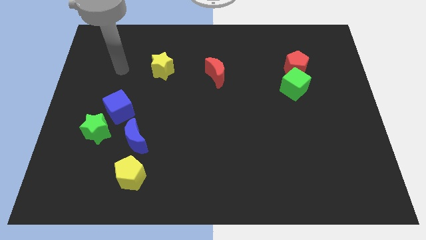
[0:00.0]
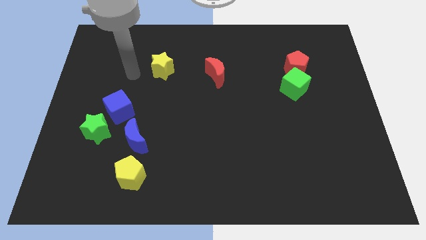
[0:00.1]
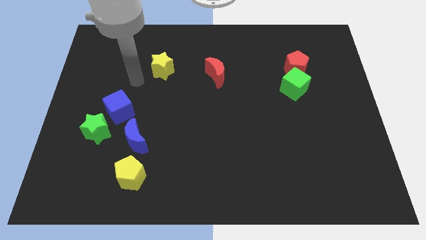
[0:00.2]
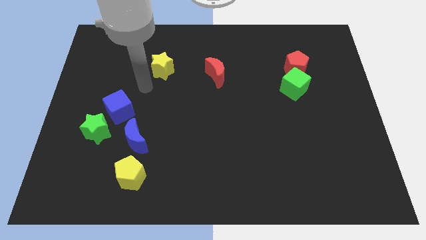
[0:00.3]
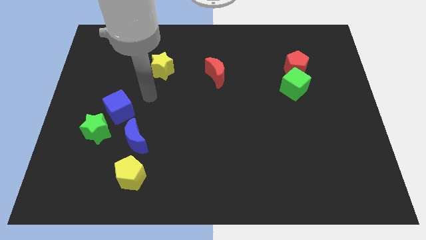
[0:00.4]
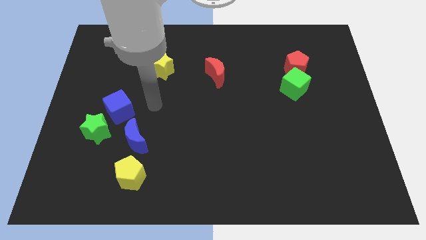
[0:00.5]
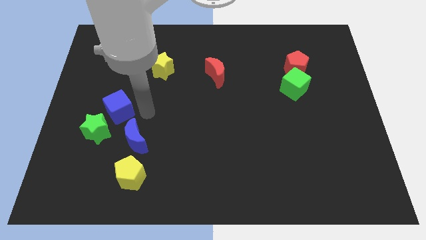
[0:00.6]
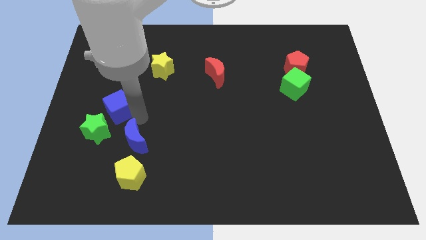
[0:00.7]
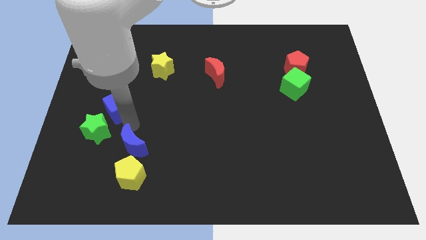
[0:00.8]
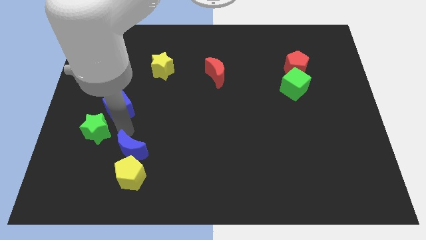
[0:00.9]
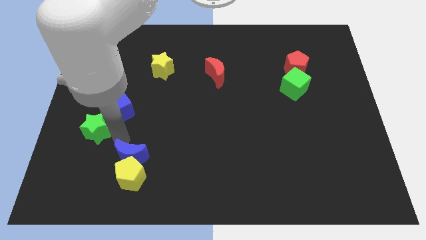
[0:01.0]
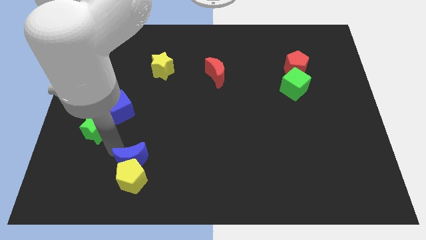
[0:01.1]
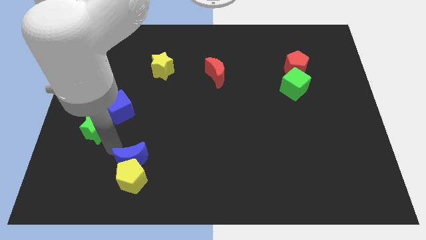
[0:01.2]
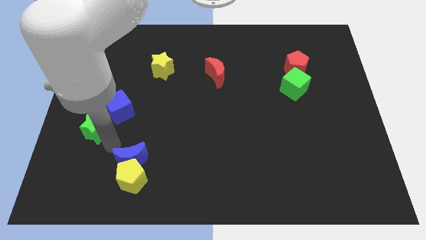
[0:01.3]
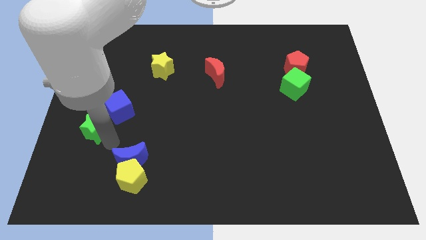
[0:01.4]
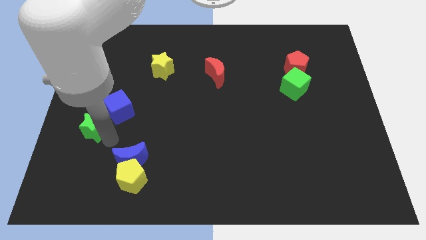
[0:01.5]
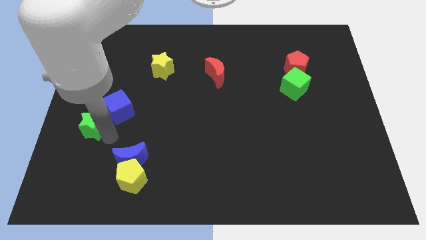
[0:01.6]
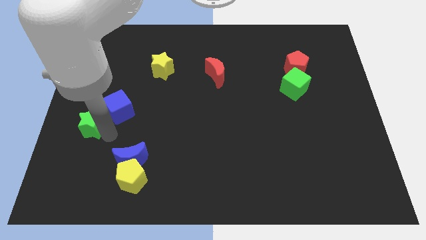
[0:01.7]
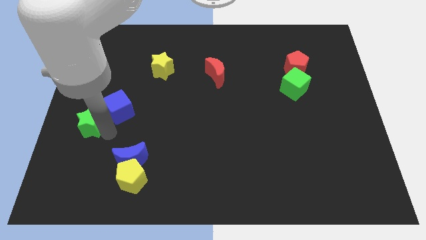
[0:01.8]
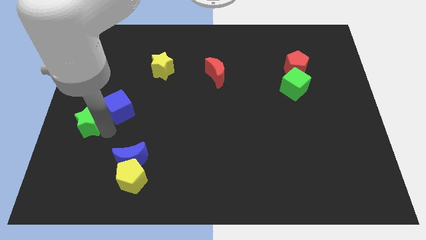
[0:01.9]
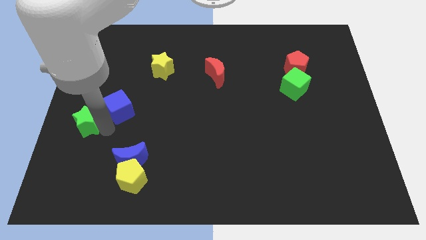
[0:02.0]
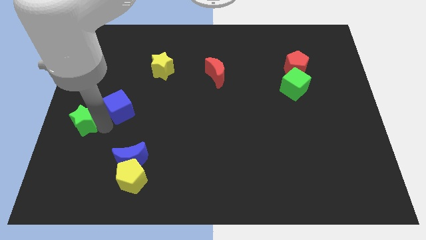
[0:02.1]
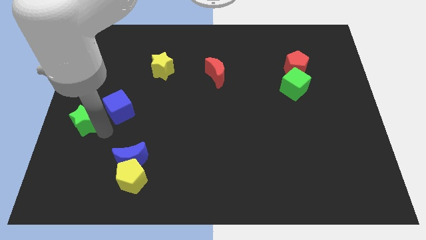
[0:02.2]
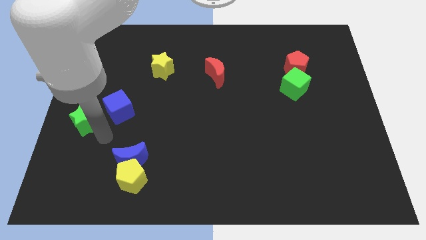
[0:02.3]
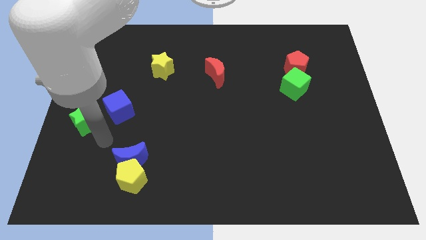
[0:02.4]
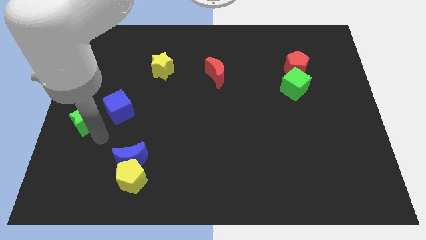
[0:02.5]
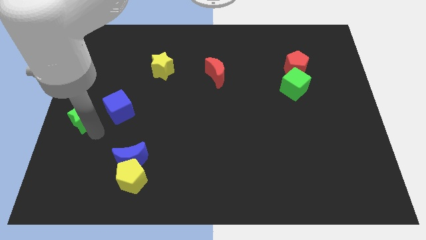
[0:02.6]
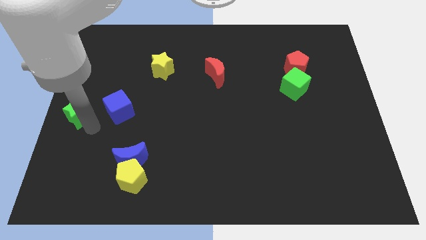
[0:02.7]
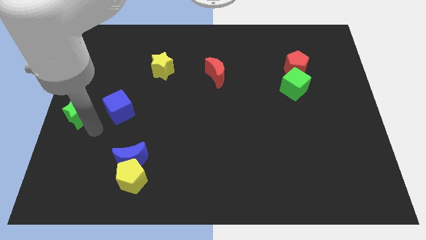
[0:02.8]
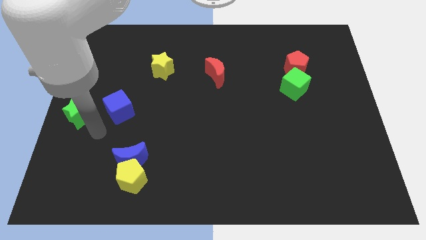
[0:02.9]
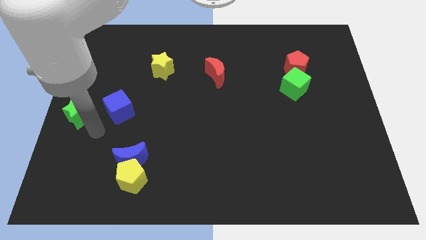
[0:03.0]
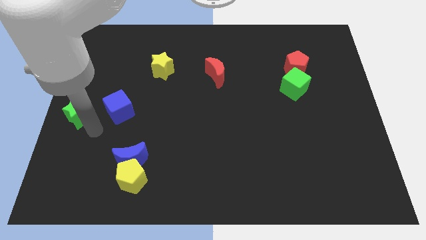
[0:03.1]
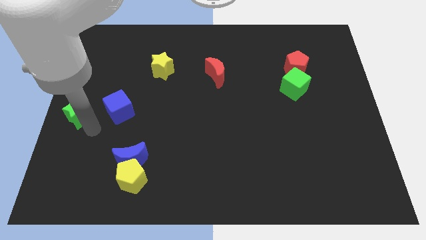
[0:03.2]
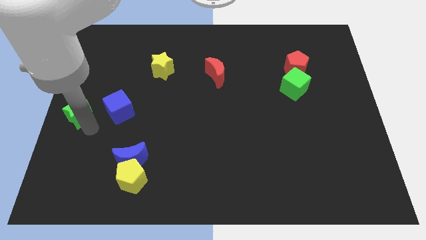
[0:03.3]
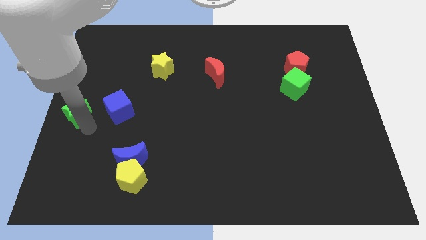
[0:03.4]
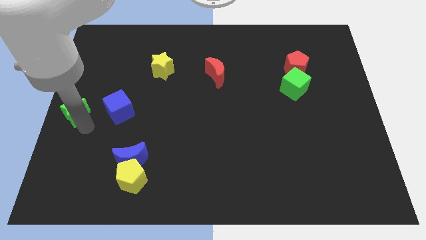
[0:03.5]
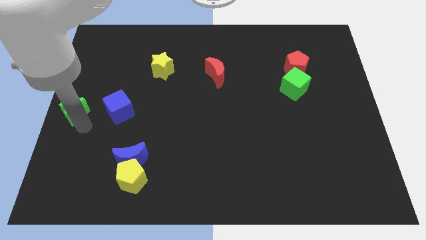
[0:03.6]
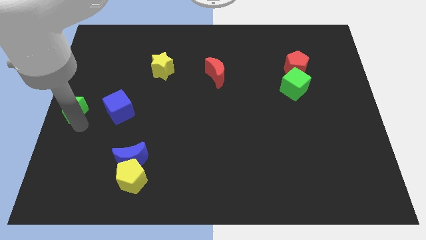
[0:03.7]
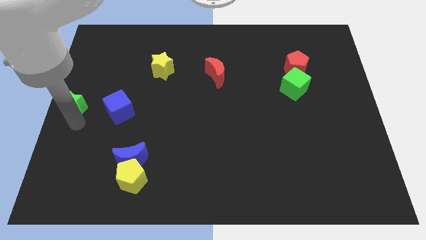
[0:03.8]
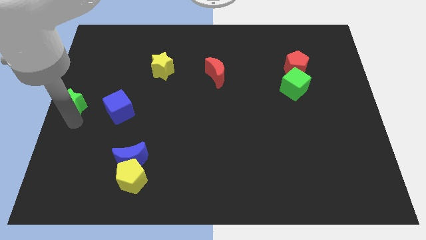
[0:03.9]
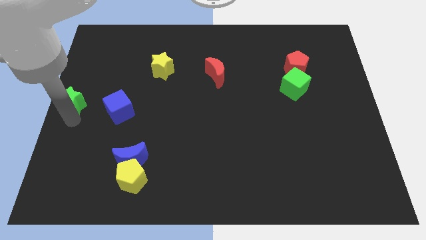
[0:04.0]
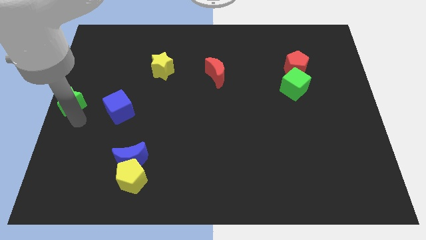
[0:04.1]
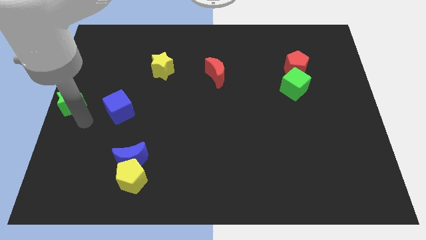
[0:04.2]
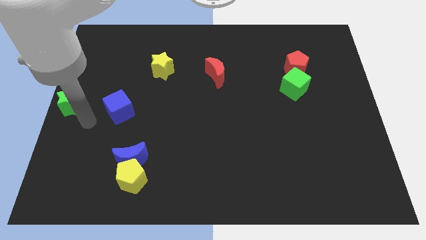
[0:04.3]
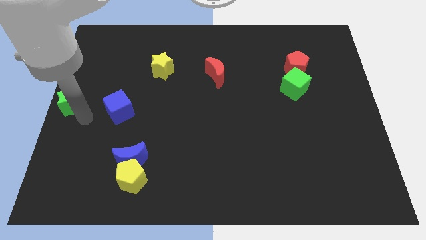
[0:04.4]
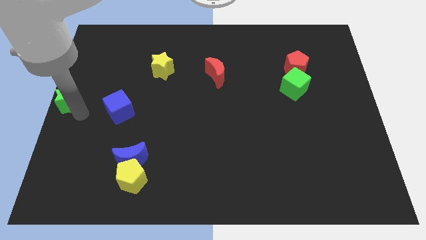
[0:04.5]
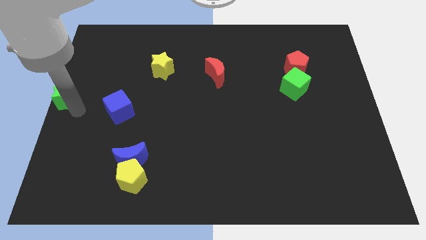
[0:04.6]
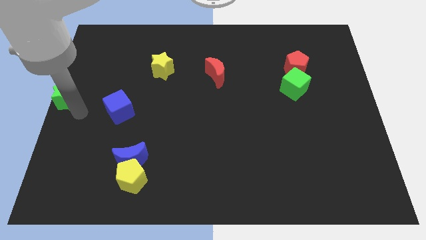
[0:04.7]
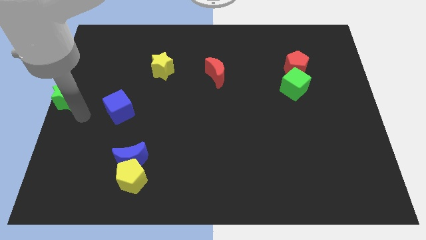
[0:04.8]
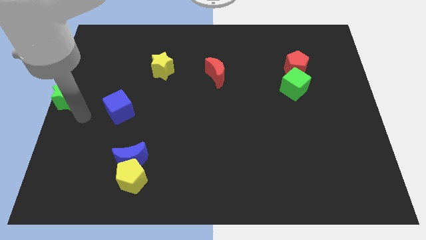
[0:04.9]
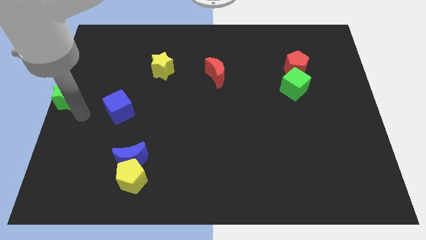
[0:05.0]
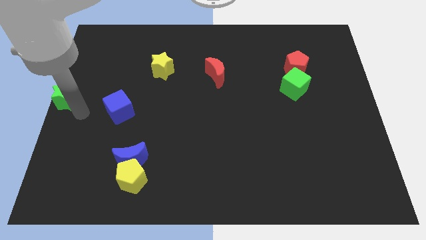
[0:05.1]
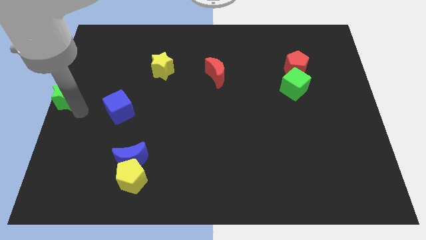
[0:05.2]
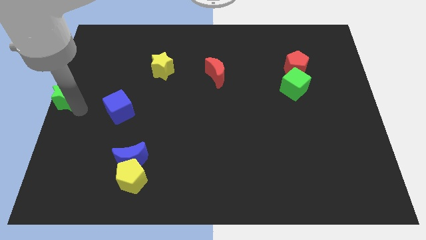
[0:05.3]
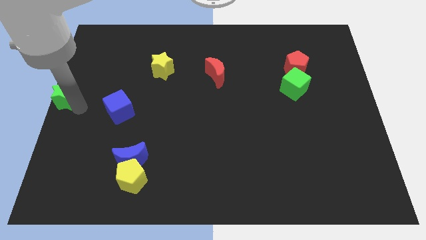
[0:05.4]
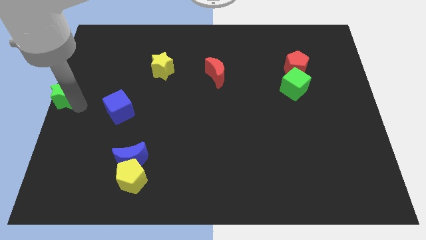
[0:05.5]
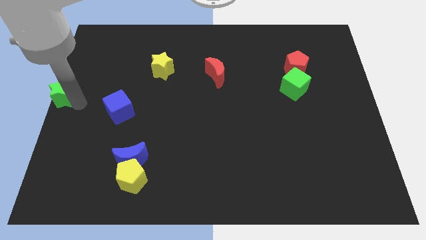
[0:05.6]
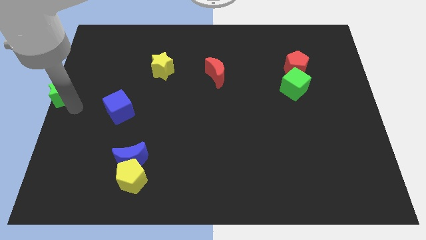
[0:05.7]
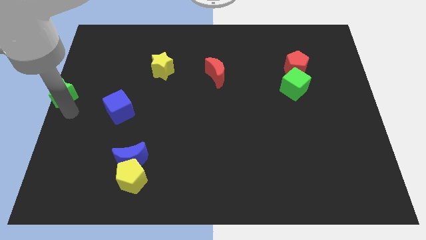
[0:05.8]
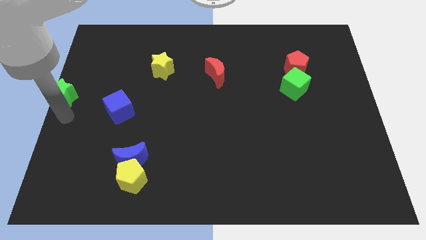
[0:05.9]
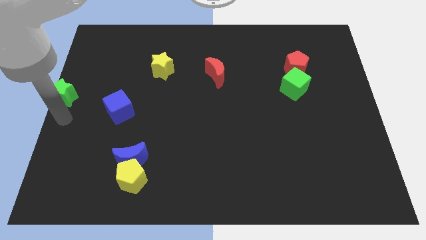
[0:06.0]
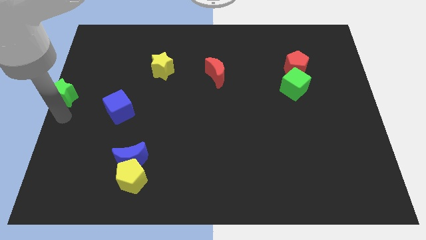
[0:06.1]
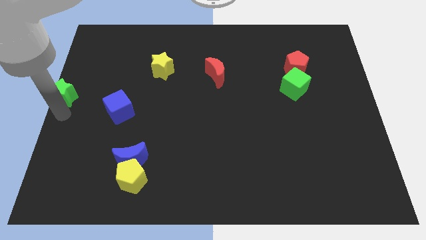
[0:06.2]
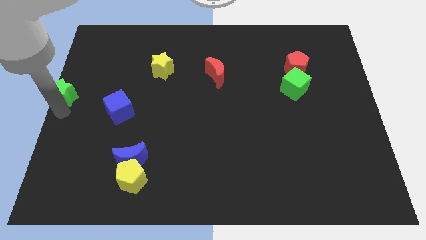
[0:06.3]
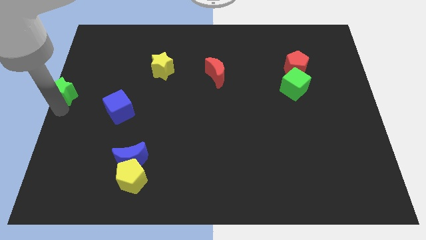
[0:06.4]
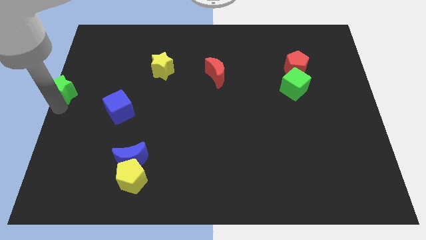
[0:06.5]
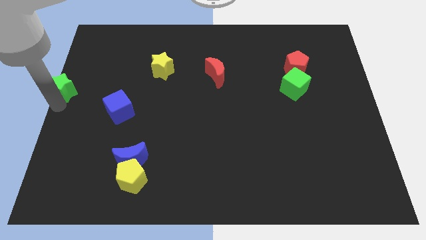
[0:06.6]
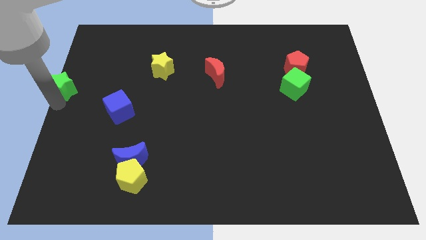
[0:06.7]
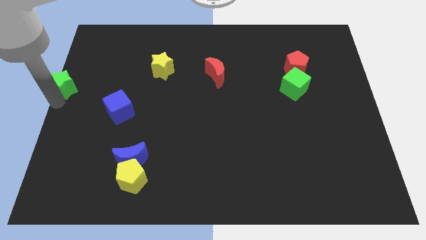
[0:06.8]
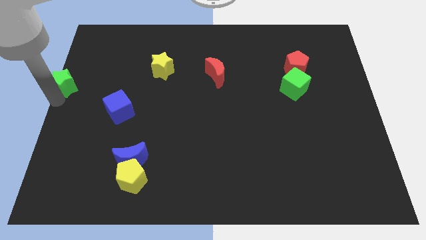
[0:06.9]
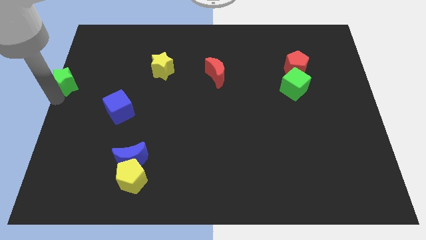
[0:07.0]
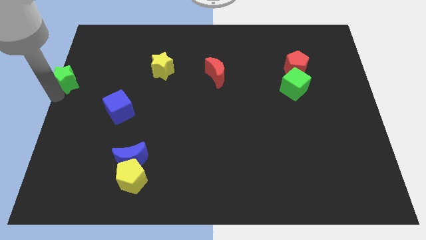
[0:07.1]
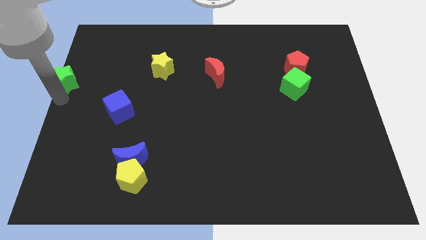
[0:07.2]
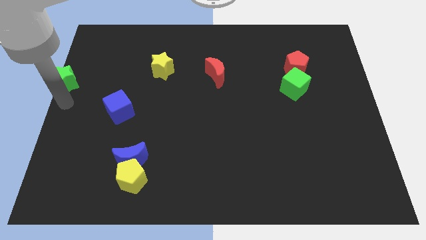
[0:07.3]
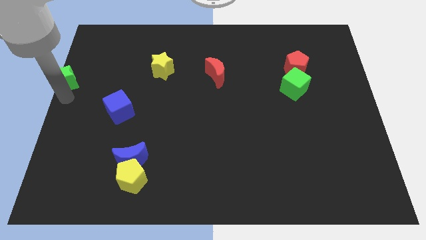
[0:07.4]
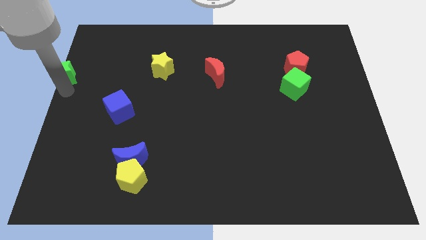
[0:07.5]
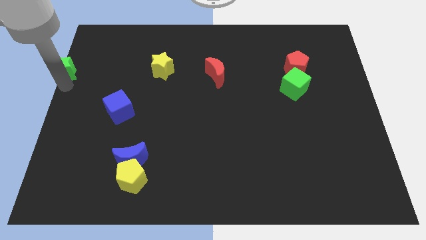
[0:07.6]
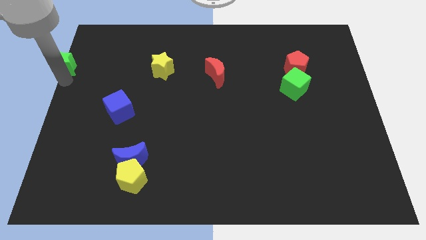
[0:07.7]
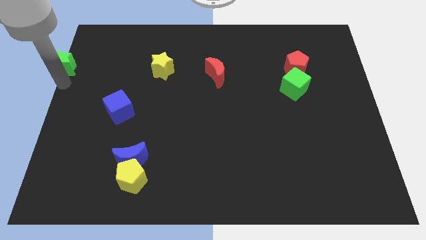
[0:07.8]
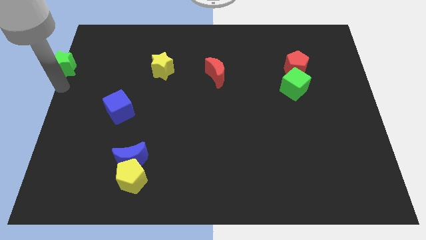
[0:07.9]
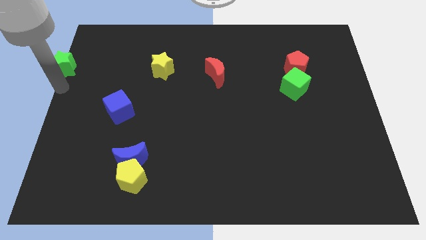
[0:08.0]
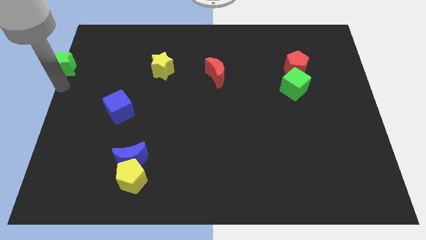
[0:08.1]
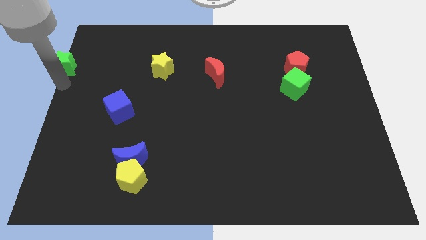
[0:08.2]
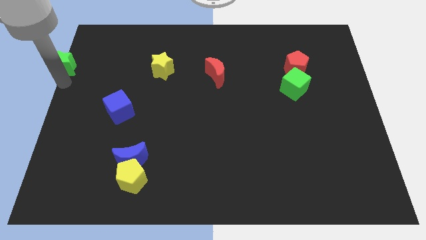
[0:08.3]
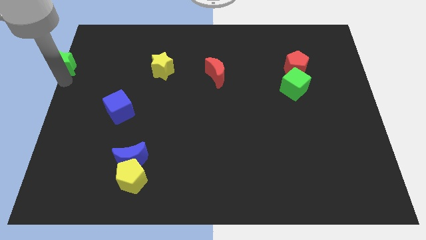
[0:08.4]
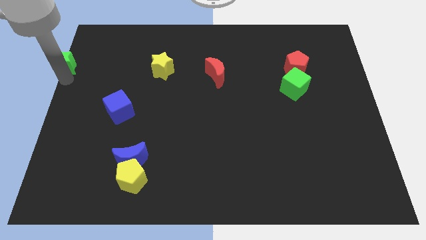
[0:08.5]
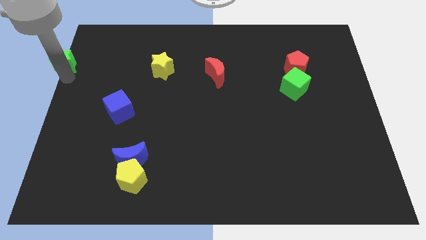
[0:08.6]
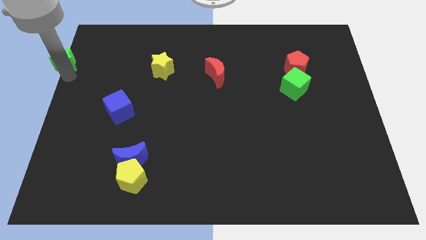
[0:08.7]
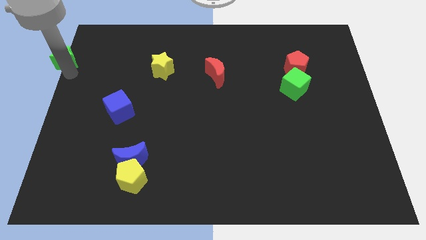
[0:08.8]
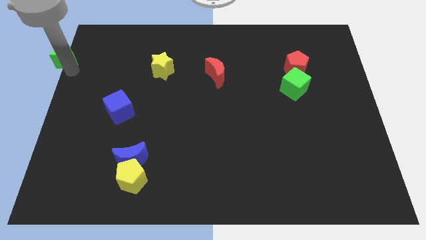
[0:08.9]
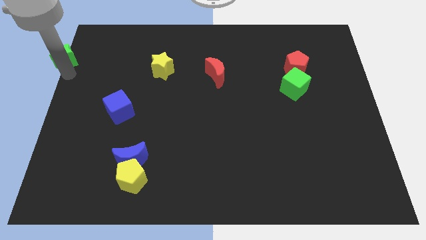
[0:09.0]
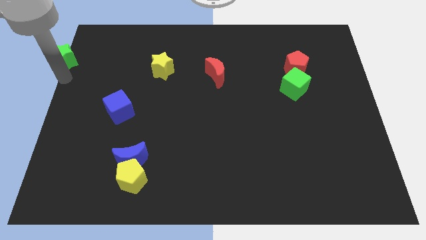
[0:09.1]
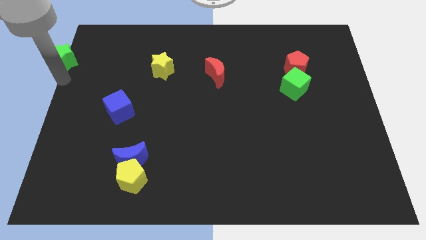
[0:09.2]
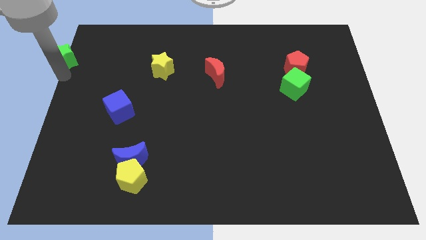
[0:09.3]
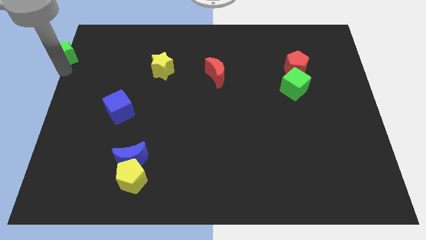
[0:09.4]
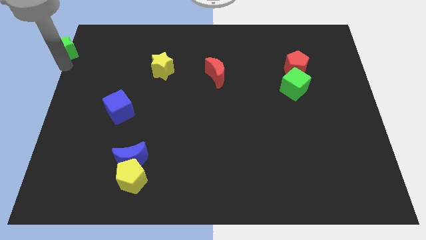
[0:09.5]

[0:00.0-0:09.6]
slide the green star to the top left
